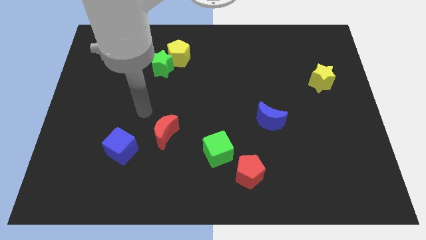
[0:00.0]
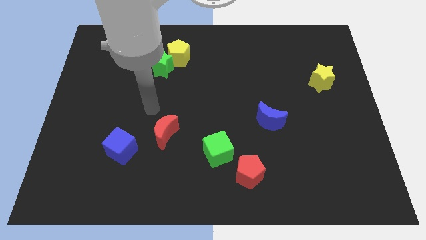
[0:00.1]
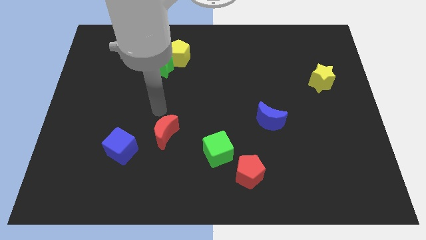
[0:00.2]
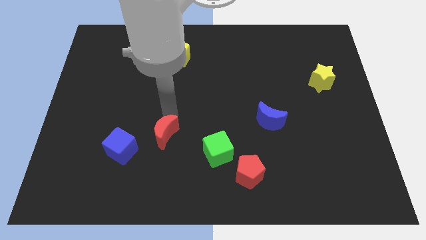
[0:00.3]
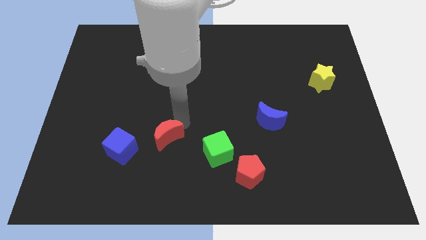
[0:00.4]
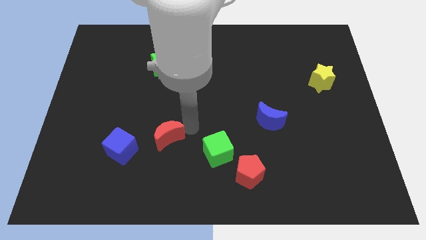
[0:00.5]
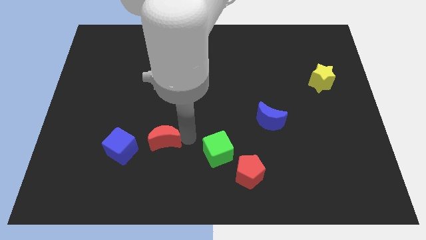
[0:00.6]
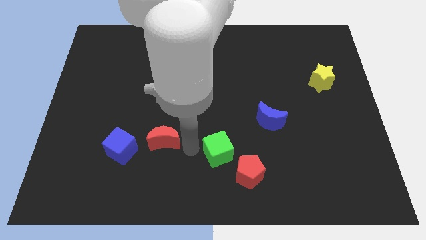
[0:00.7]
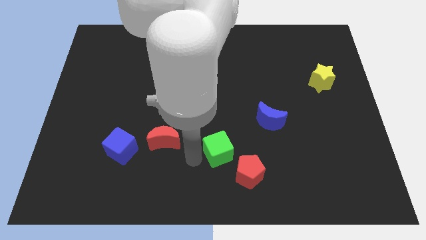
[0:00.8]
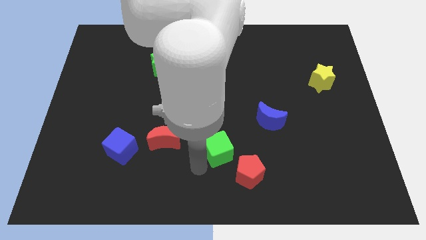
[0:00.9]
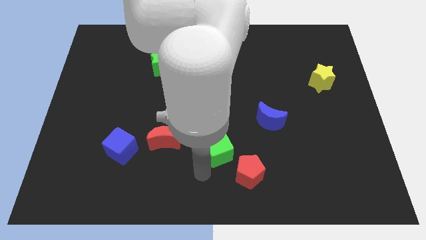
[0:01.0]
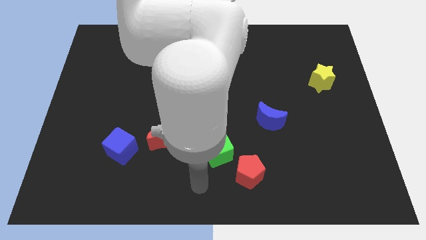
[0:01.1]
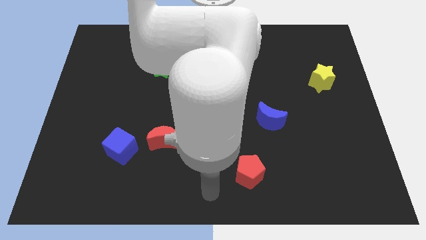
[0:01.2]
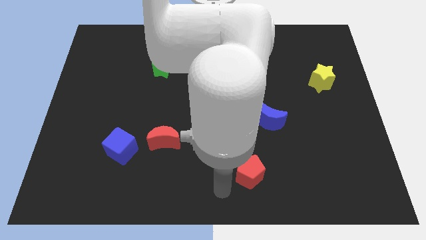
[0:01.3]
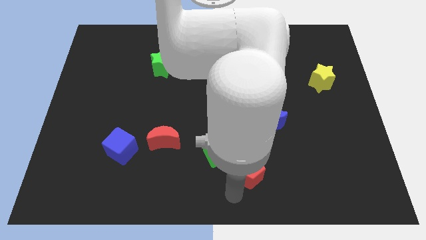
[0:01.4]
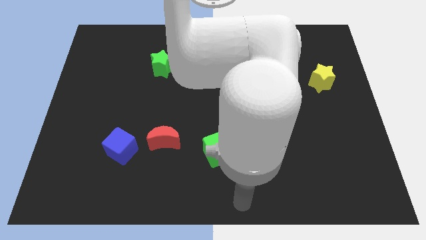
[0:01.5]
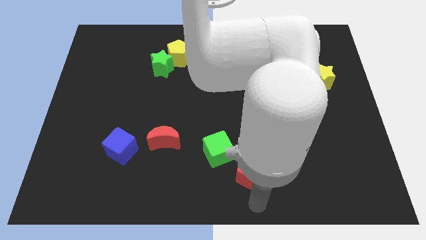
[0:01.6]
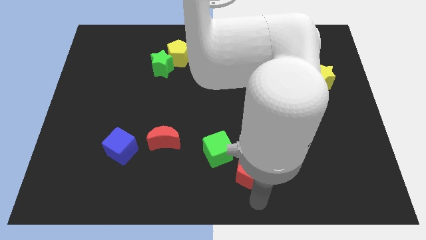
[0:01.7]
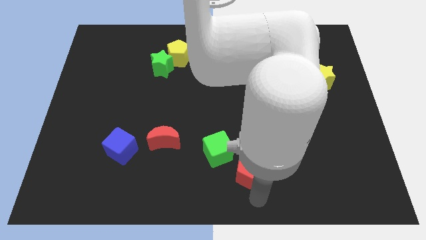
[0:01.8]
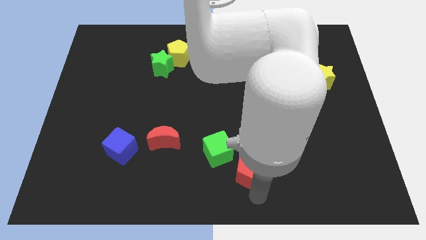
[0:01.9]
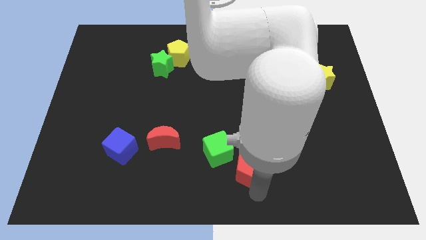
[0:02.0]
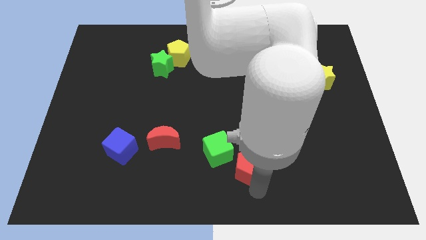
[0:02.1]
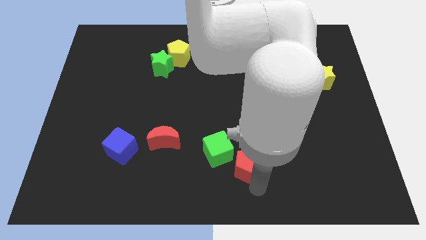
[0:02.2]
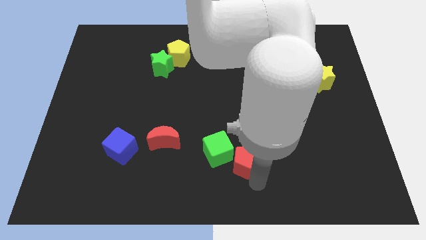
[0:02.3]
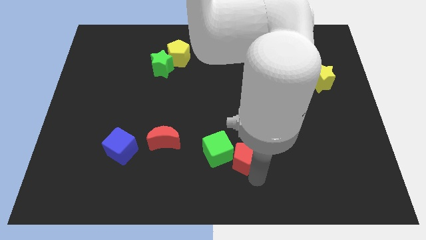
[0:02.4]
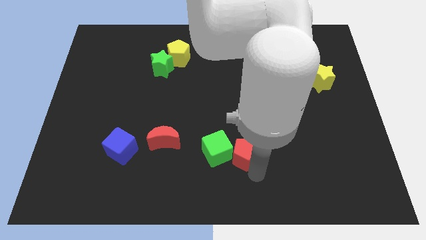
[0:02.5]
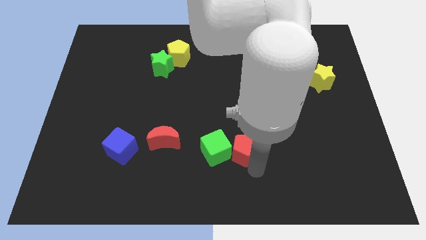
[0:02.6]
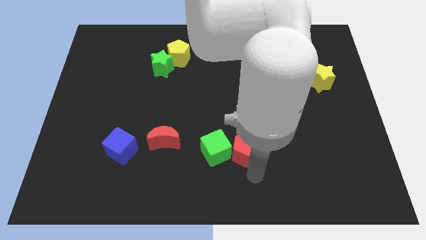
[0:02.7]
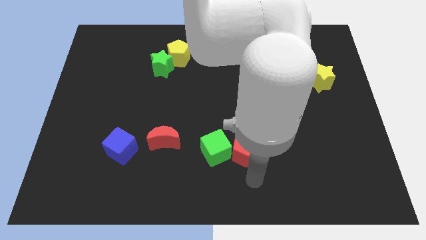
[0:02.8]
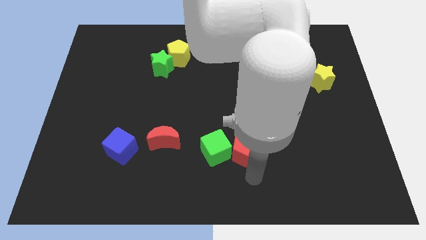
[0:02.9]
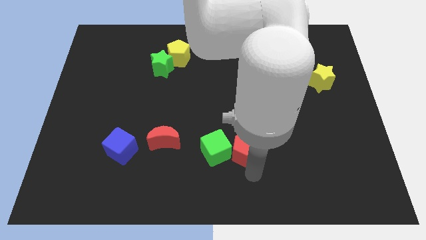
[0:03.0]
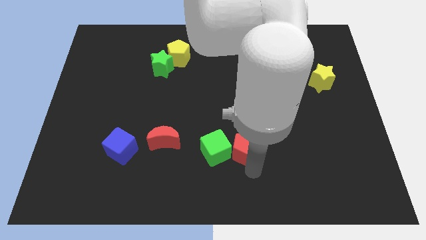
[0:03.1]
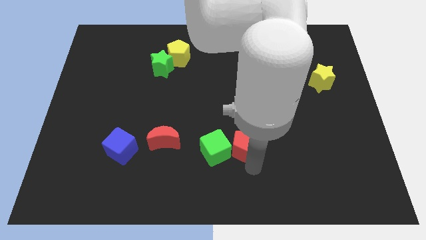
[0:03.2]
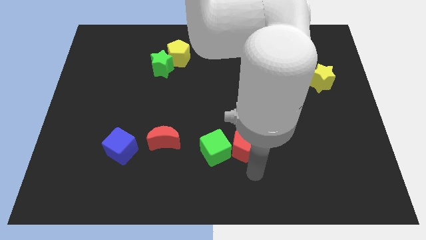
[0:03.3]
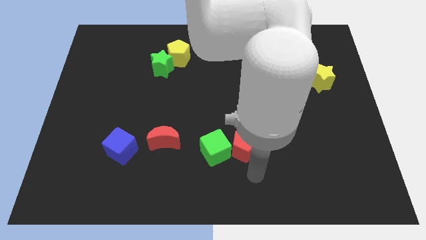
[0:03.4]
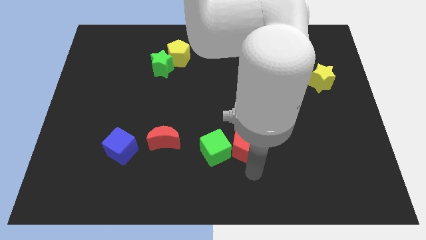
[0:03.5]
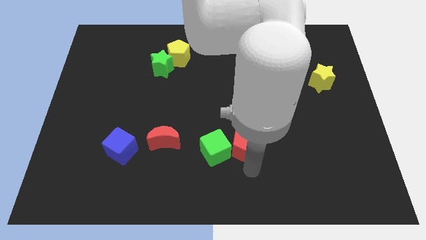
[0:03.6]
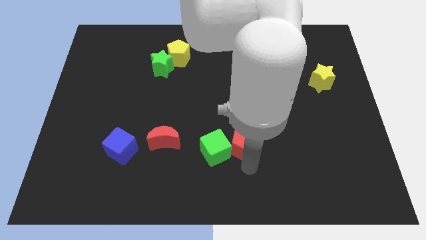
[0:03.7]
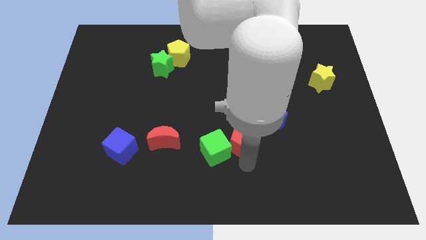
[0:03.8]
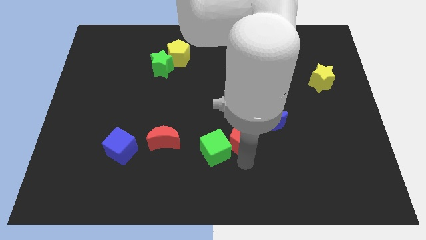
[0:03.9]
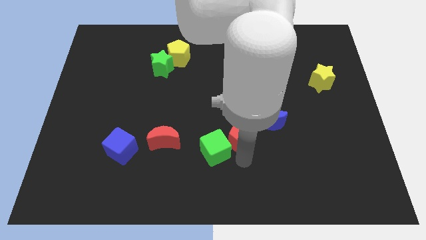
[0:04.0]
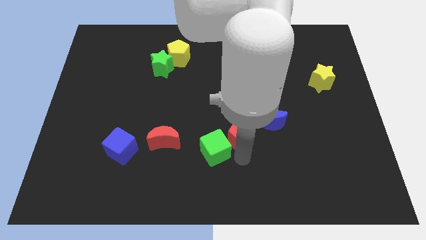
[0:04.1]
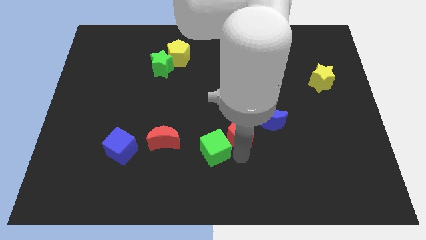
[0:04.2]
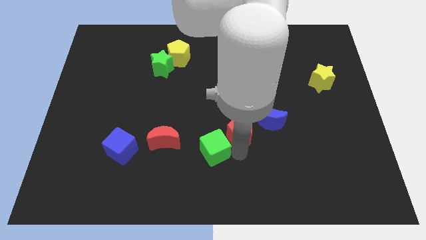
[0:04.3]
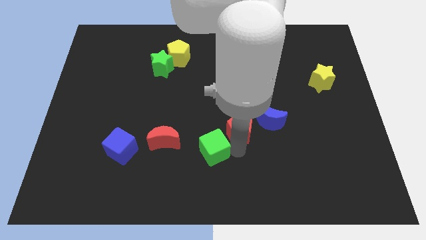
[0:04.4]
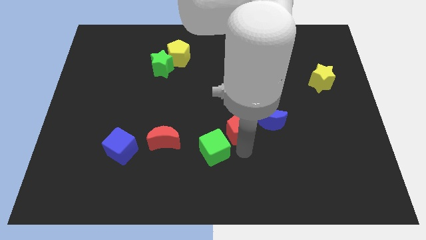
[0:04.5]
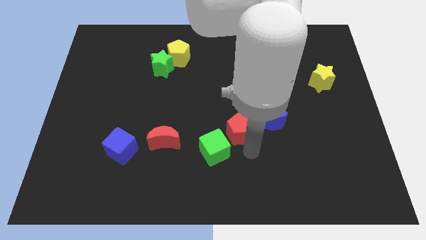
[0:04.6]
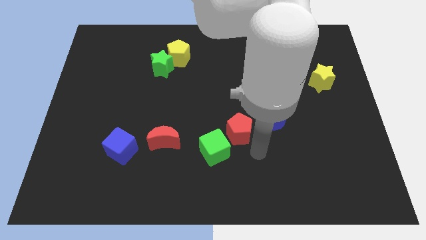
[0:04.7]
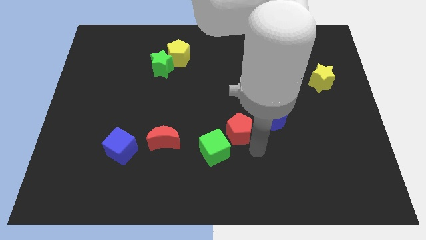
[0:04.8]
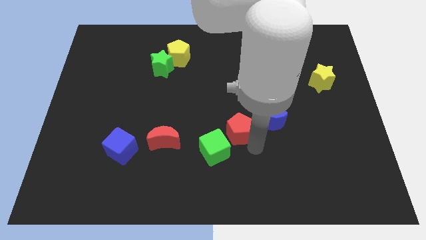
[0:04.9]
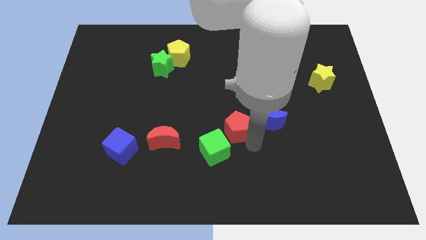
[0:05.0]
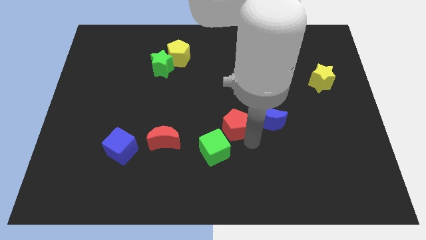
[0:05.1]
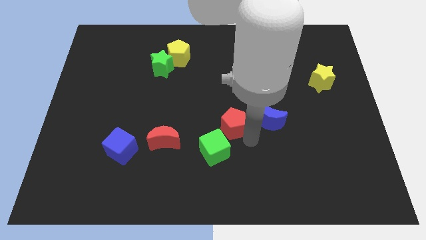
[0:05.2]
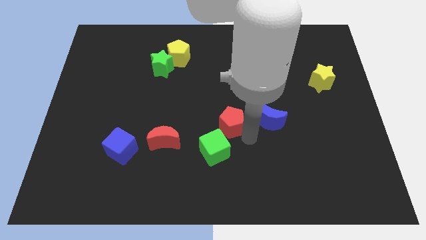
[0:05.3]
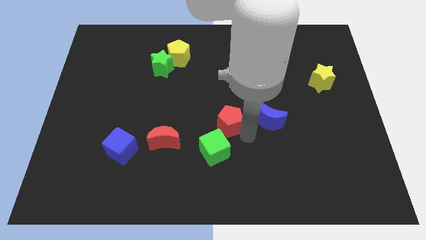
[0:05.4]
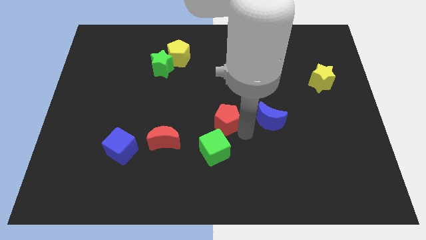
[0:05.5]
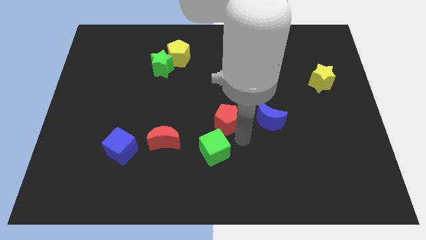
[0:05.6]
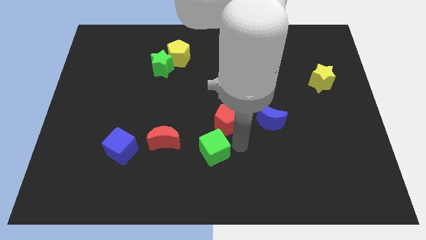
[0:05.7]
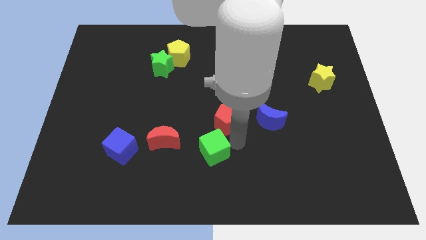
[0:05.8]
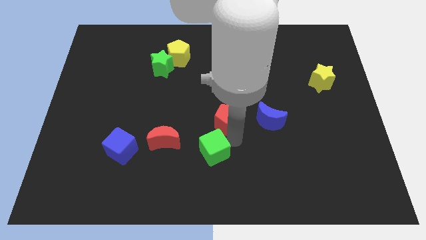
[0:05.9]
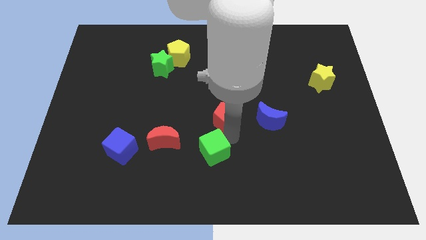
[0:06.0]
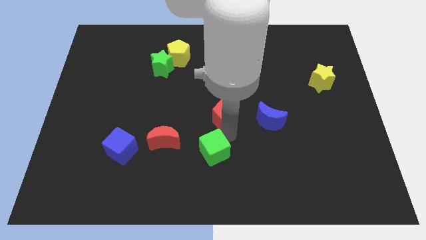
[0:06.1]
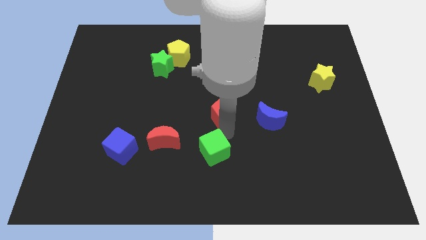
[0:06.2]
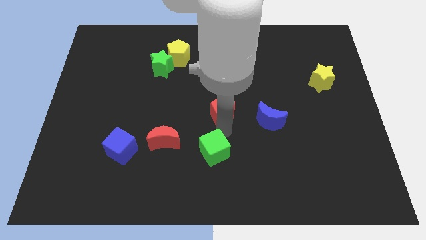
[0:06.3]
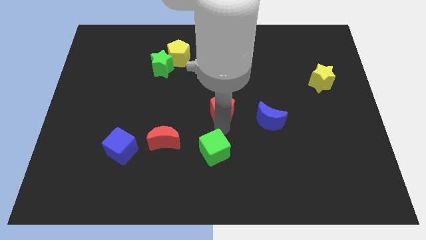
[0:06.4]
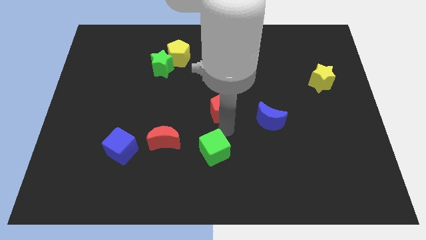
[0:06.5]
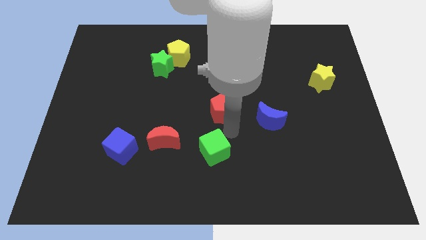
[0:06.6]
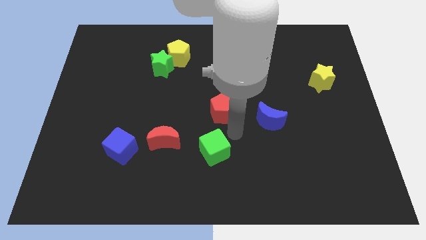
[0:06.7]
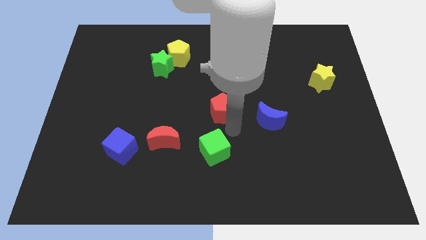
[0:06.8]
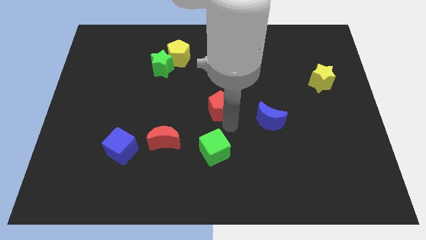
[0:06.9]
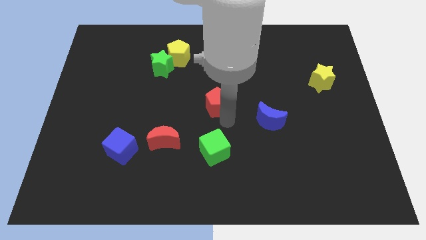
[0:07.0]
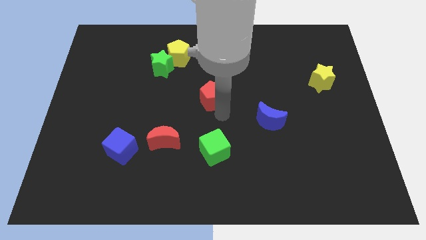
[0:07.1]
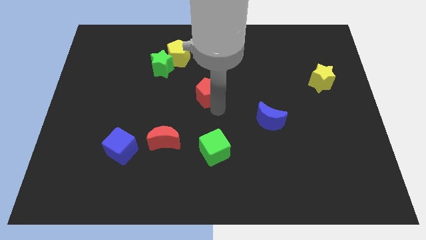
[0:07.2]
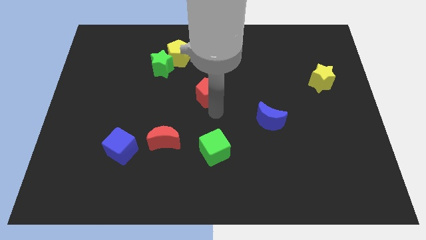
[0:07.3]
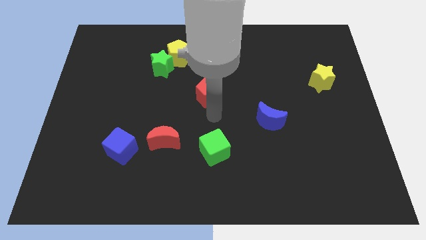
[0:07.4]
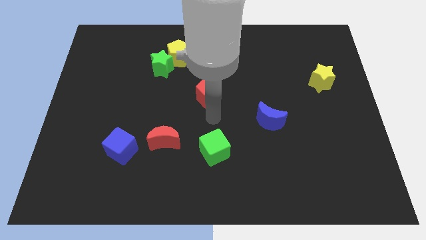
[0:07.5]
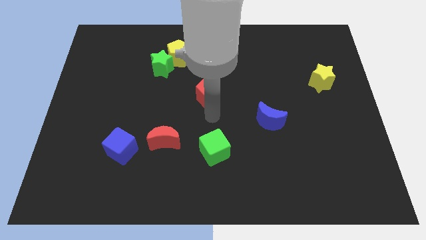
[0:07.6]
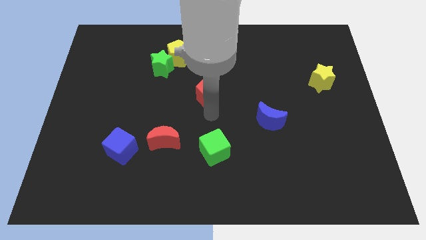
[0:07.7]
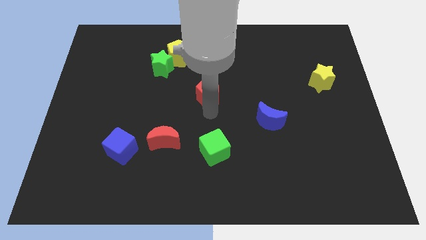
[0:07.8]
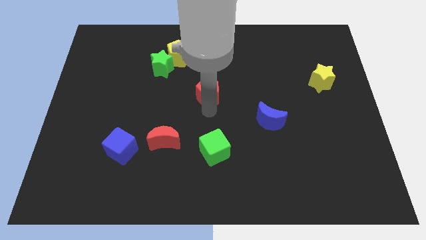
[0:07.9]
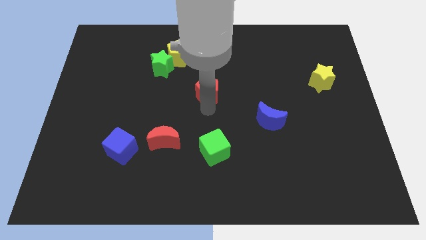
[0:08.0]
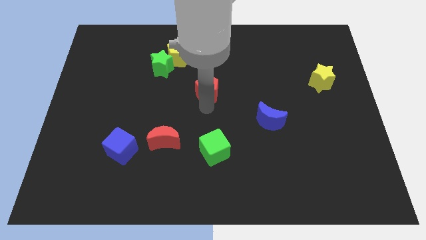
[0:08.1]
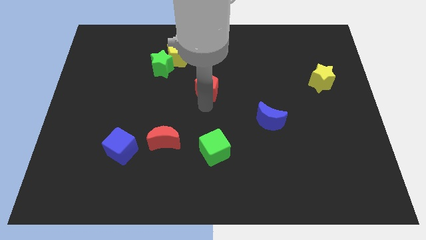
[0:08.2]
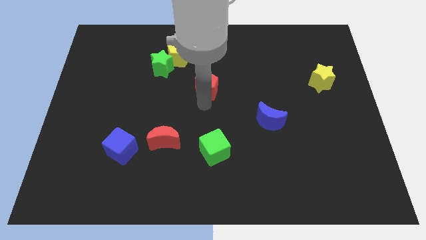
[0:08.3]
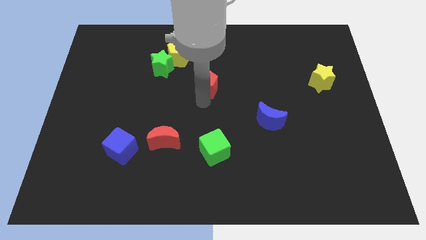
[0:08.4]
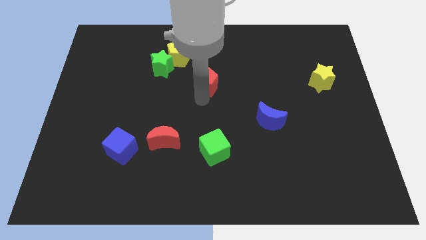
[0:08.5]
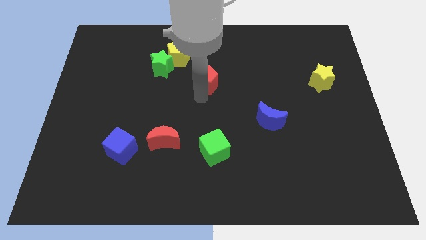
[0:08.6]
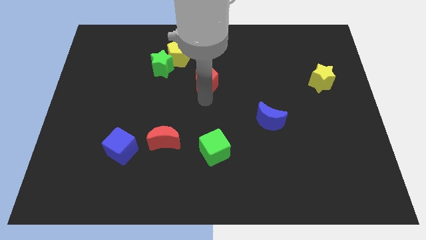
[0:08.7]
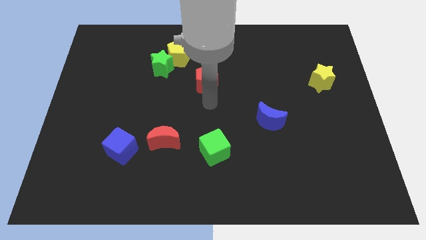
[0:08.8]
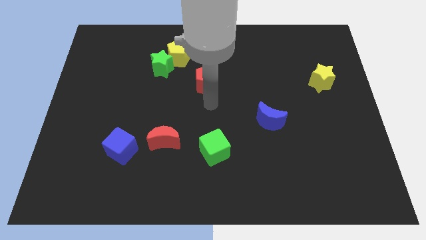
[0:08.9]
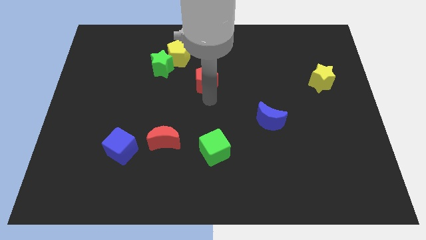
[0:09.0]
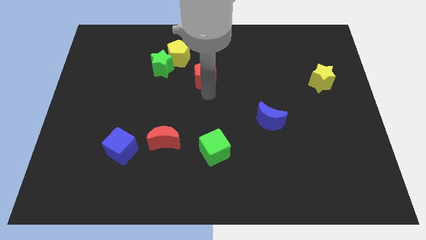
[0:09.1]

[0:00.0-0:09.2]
move the red pentagon just right of the green star
